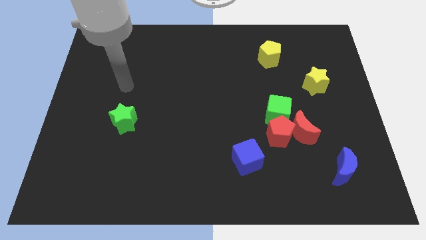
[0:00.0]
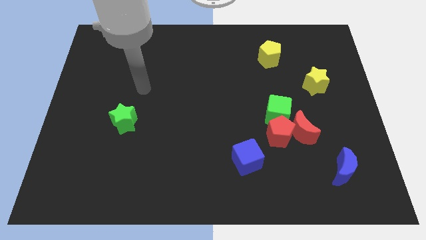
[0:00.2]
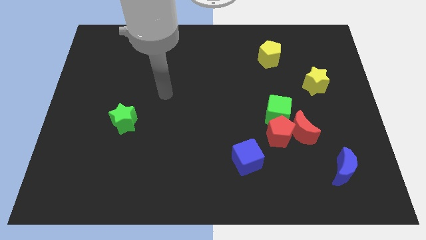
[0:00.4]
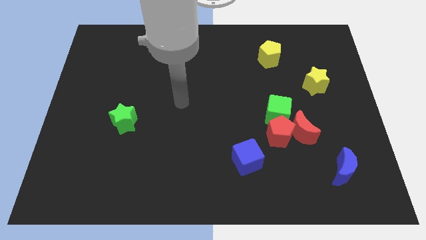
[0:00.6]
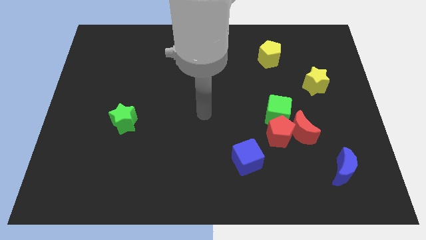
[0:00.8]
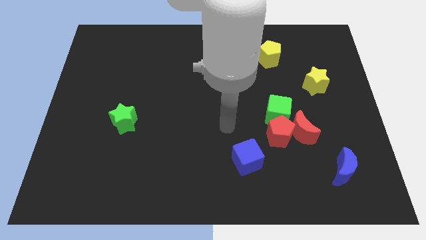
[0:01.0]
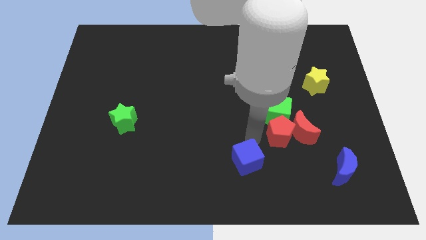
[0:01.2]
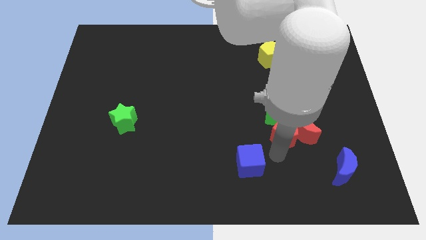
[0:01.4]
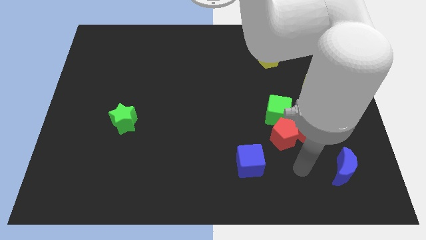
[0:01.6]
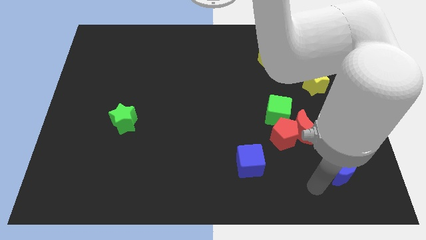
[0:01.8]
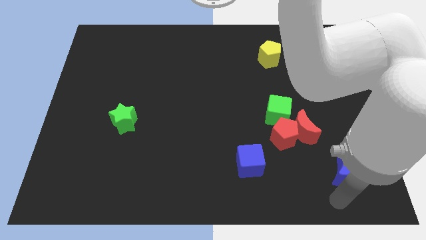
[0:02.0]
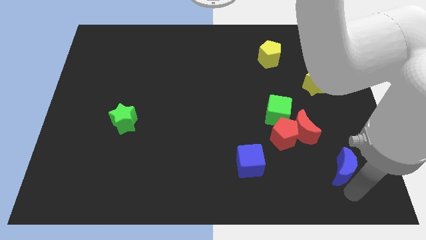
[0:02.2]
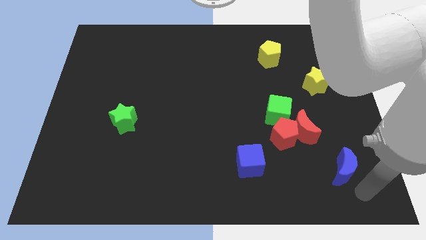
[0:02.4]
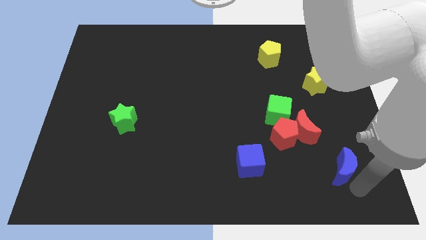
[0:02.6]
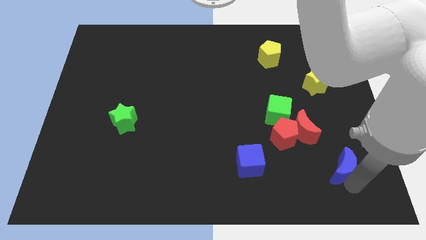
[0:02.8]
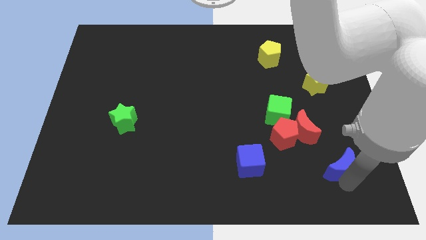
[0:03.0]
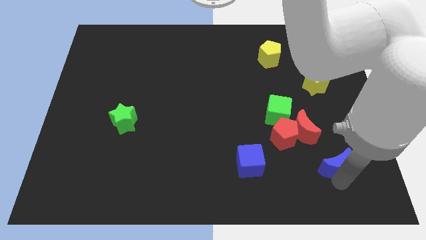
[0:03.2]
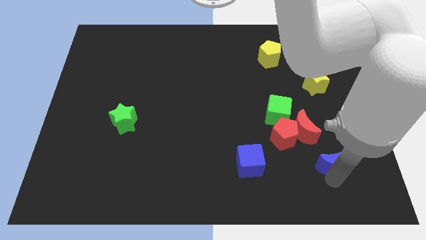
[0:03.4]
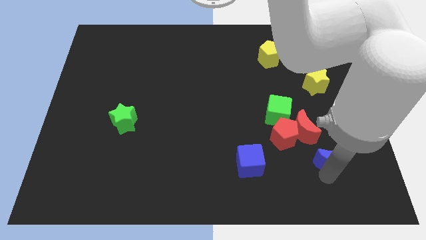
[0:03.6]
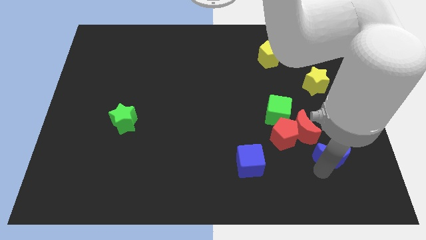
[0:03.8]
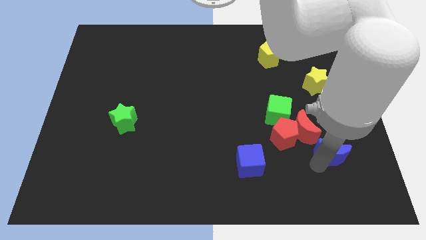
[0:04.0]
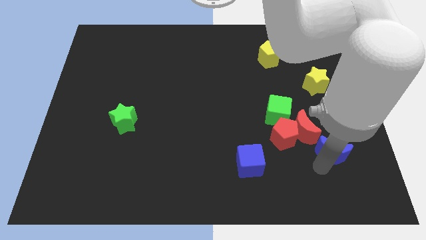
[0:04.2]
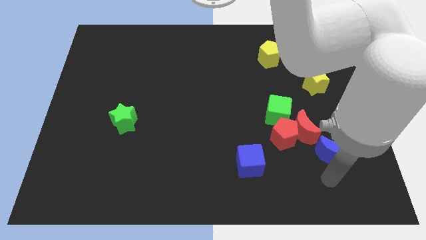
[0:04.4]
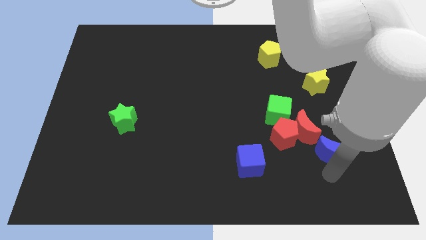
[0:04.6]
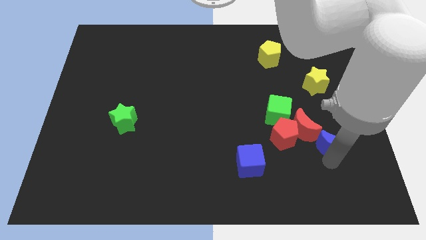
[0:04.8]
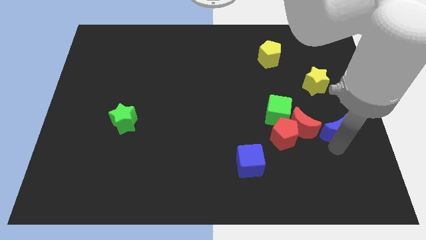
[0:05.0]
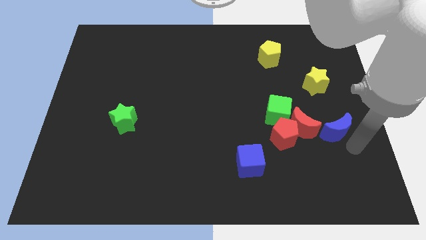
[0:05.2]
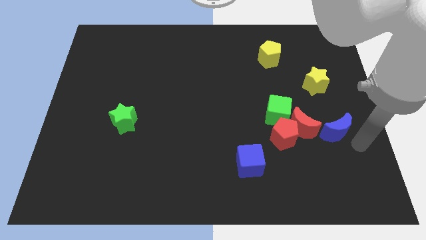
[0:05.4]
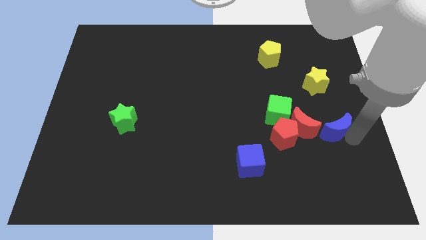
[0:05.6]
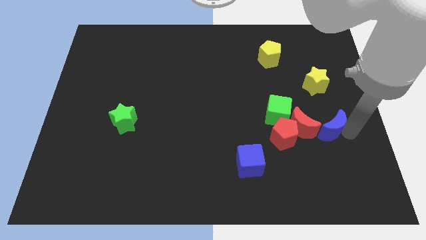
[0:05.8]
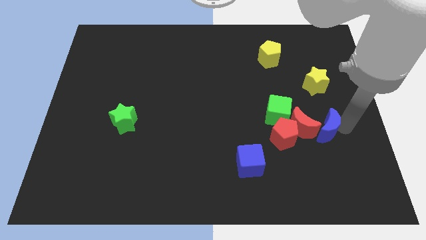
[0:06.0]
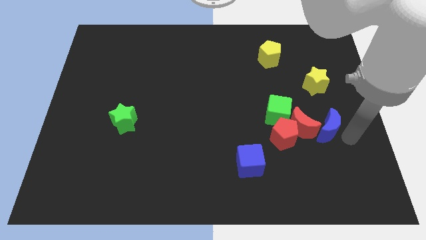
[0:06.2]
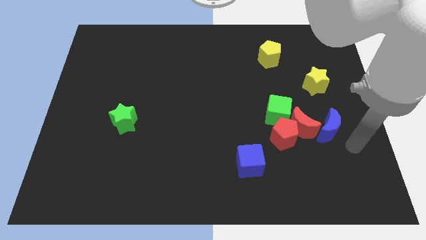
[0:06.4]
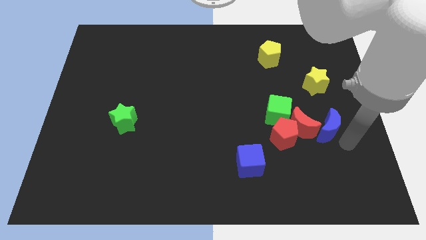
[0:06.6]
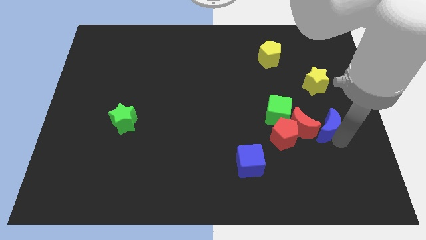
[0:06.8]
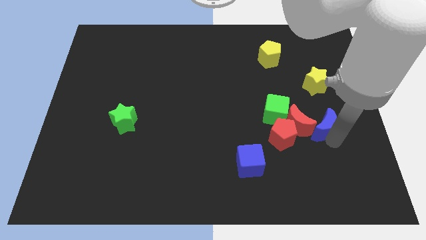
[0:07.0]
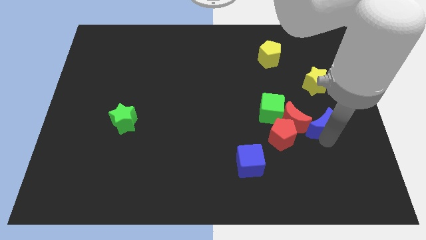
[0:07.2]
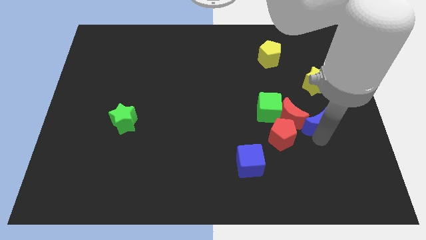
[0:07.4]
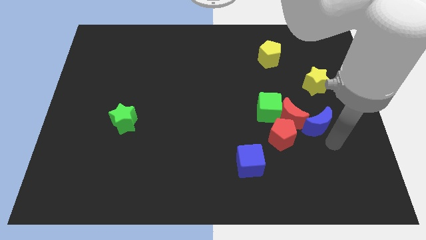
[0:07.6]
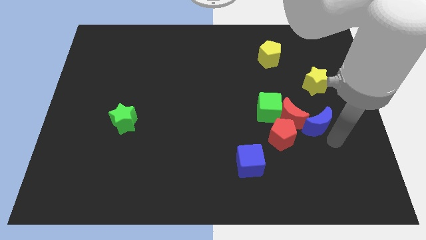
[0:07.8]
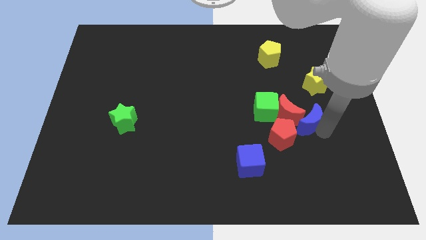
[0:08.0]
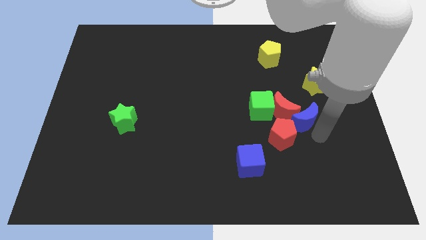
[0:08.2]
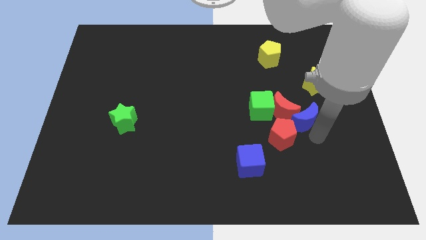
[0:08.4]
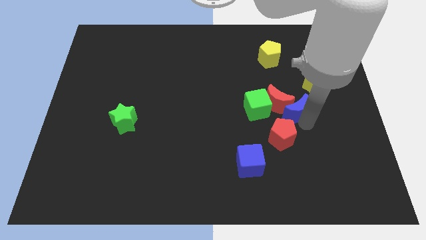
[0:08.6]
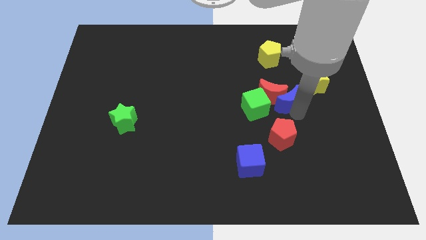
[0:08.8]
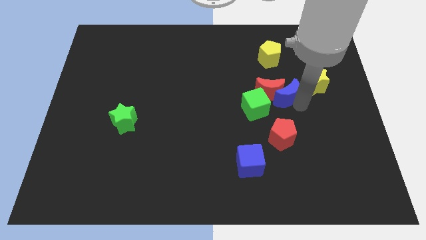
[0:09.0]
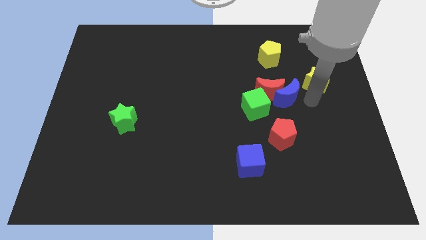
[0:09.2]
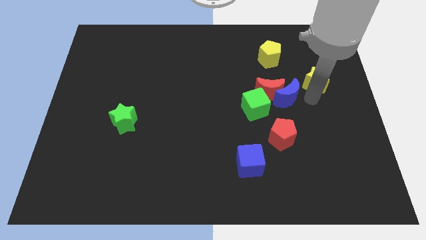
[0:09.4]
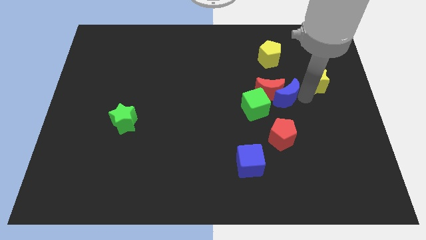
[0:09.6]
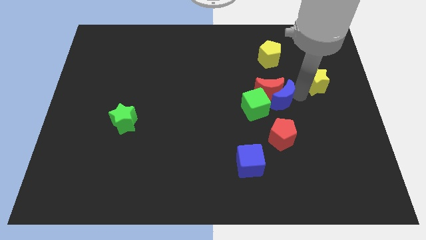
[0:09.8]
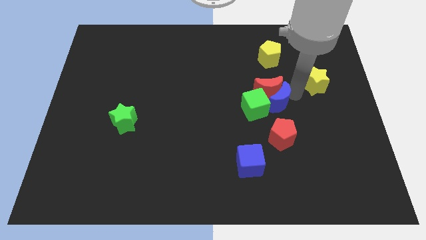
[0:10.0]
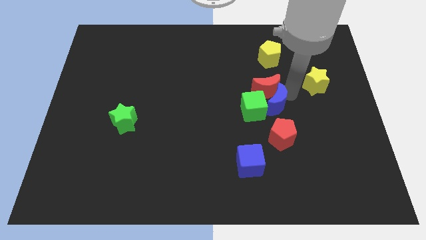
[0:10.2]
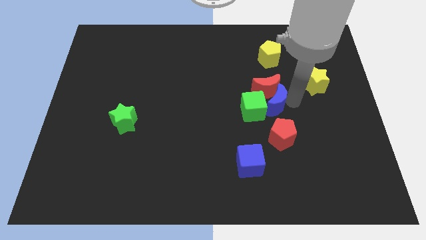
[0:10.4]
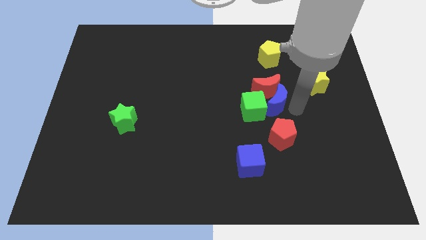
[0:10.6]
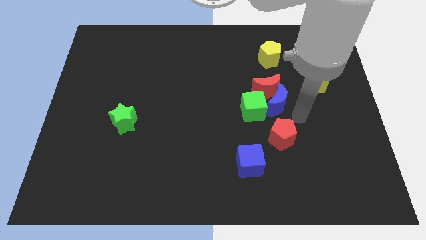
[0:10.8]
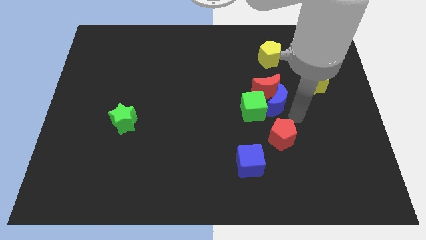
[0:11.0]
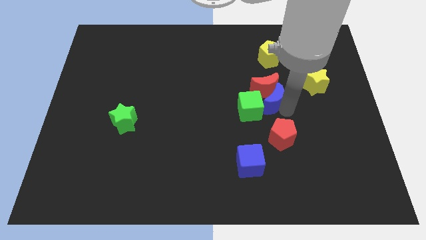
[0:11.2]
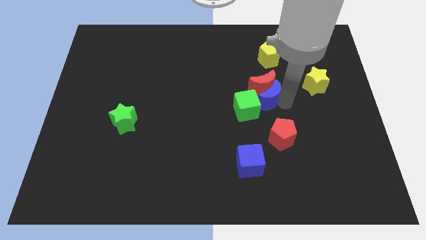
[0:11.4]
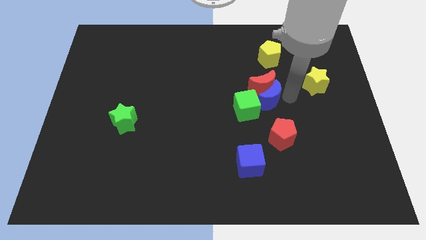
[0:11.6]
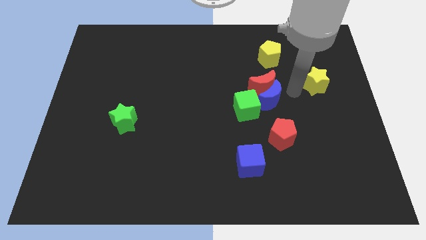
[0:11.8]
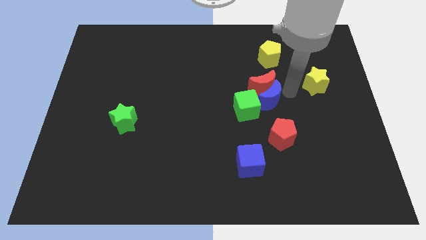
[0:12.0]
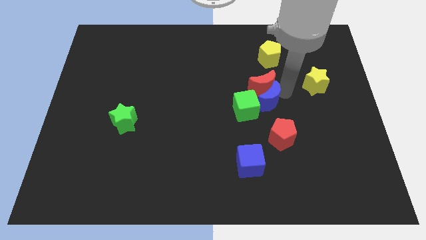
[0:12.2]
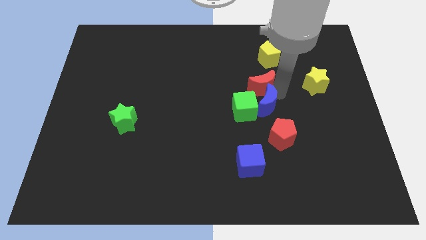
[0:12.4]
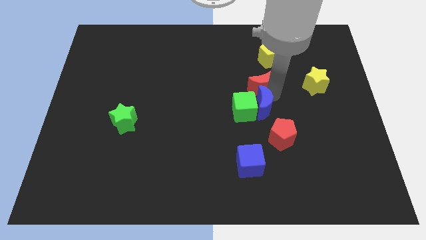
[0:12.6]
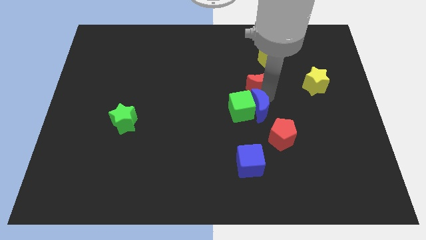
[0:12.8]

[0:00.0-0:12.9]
slide the blue moon above the blue cube

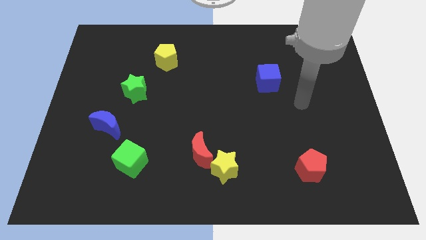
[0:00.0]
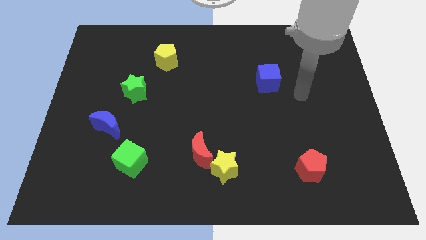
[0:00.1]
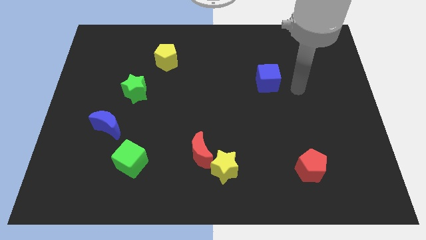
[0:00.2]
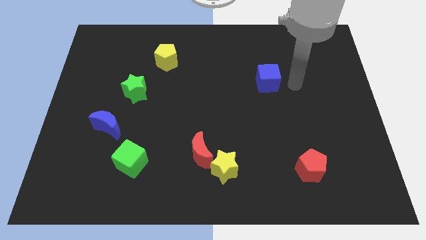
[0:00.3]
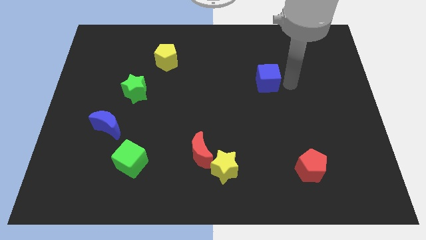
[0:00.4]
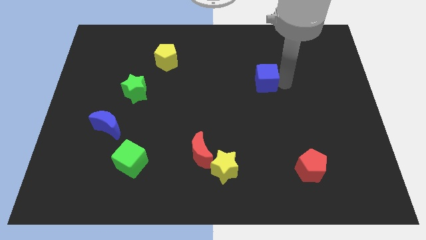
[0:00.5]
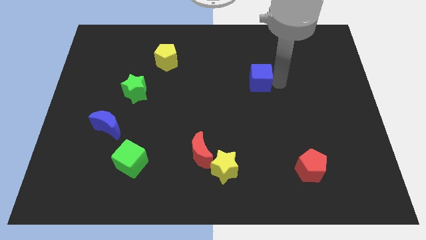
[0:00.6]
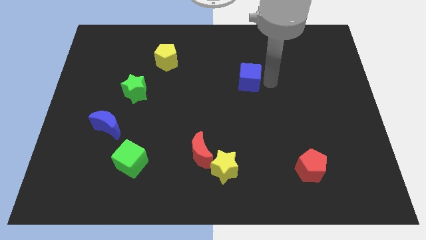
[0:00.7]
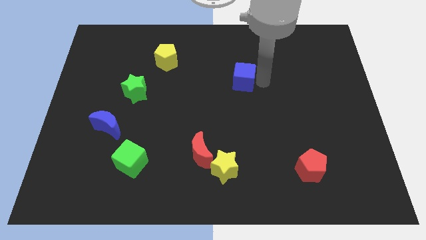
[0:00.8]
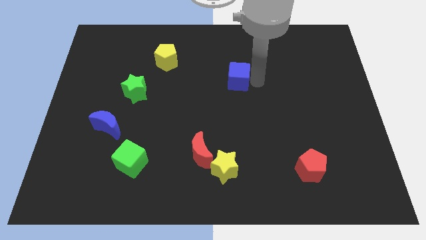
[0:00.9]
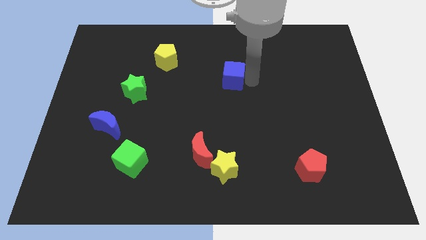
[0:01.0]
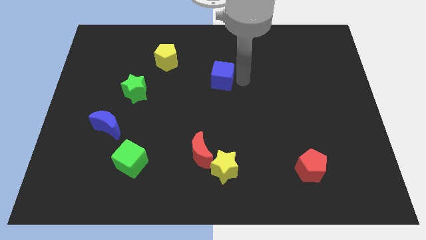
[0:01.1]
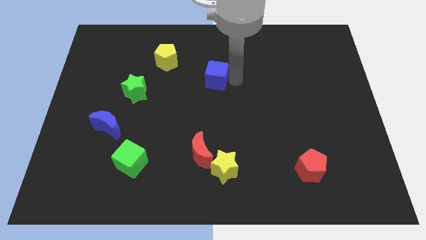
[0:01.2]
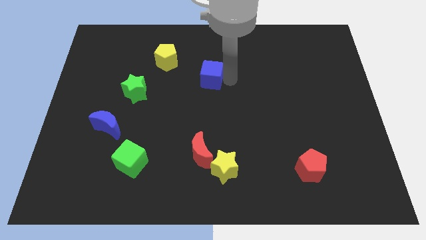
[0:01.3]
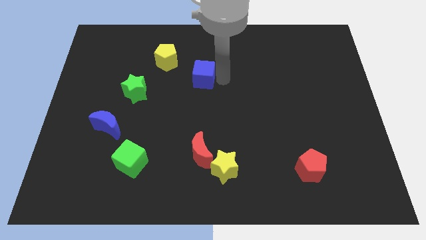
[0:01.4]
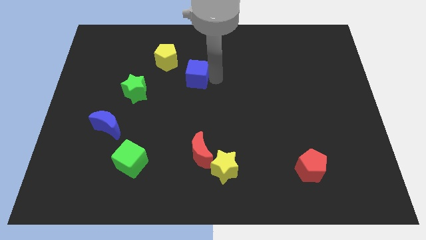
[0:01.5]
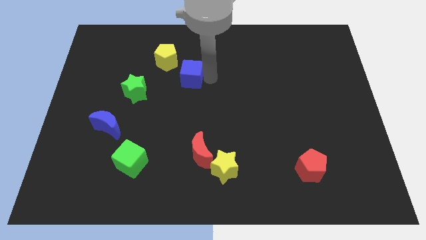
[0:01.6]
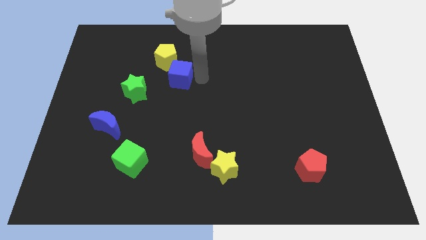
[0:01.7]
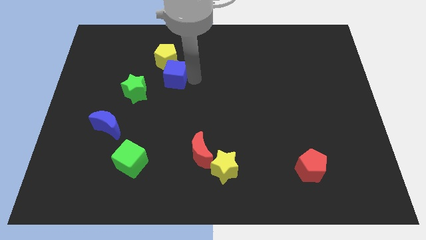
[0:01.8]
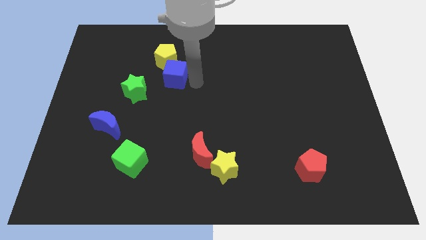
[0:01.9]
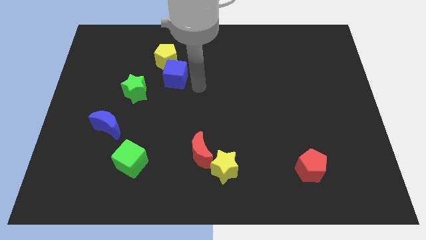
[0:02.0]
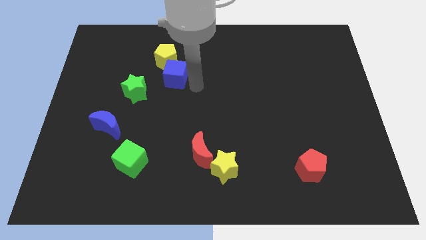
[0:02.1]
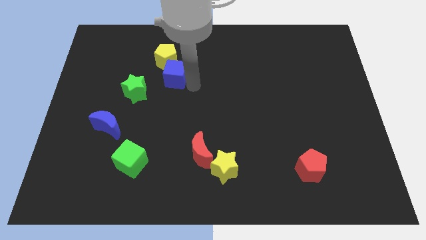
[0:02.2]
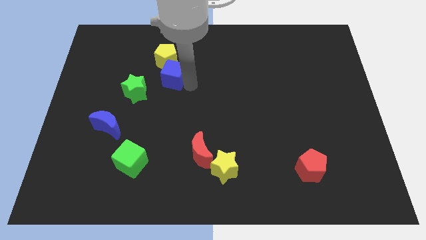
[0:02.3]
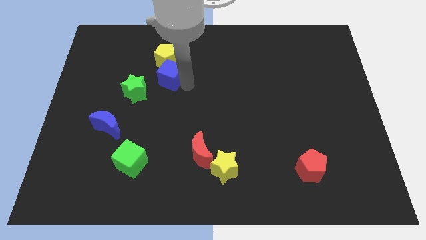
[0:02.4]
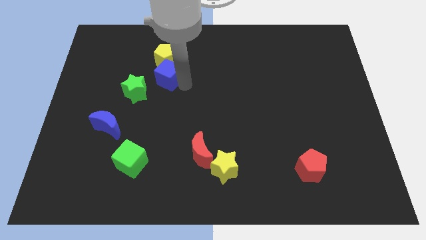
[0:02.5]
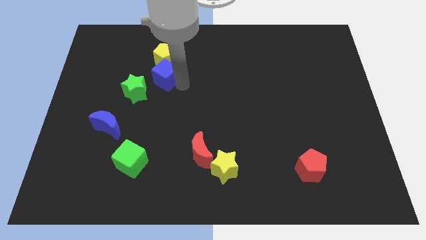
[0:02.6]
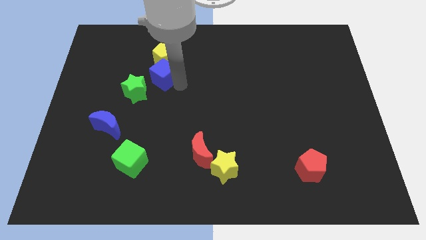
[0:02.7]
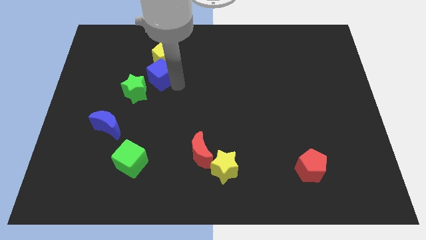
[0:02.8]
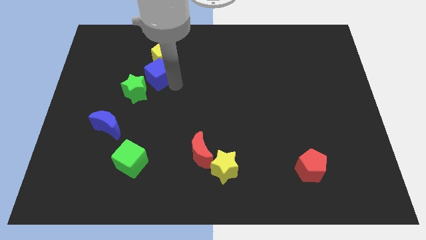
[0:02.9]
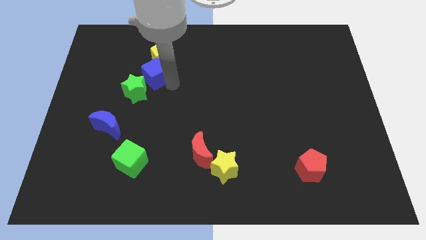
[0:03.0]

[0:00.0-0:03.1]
push the blue cube to the top side of the green star
